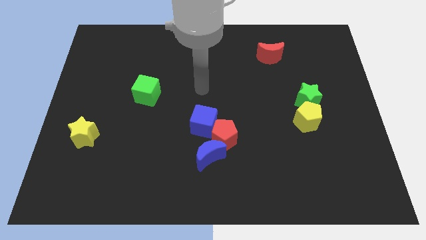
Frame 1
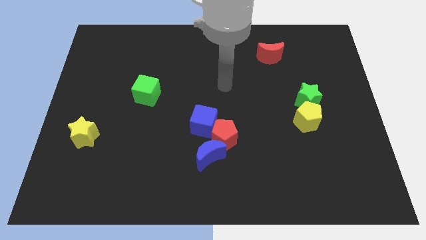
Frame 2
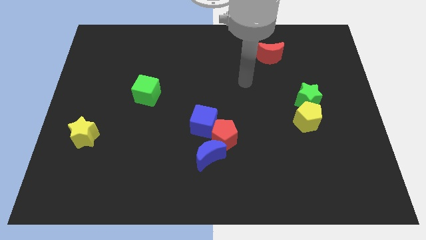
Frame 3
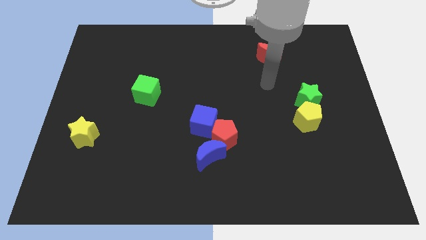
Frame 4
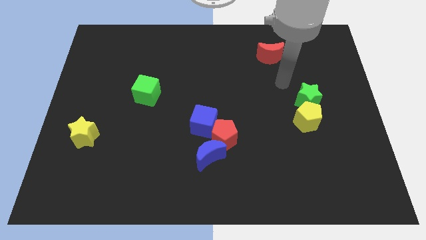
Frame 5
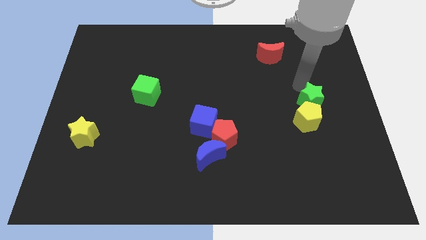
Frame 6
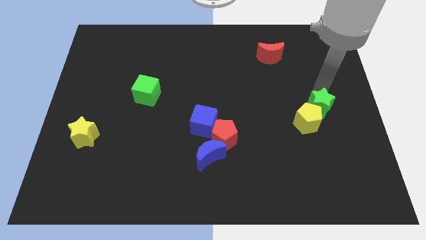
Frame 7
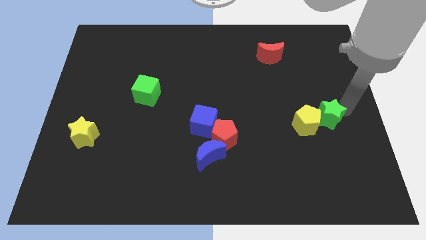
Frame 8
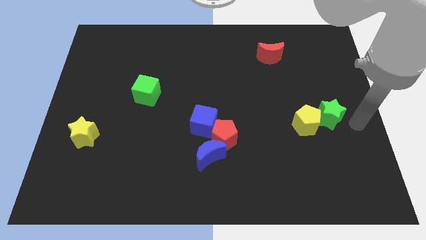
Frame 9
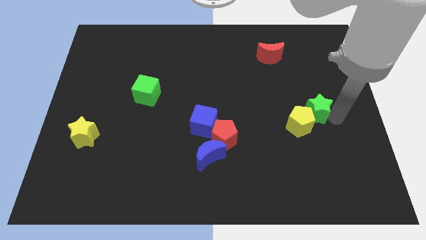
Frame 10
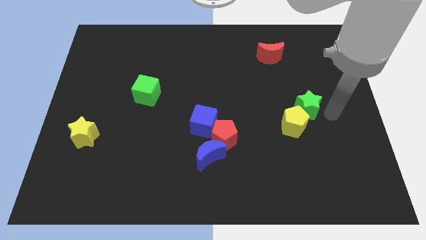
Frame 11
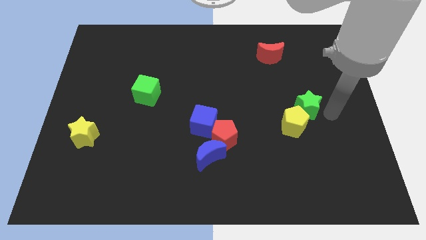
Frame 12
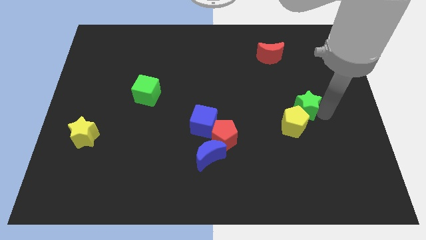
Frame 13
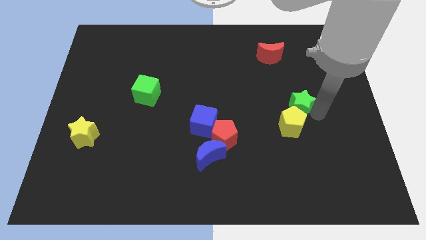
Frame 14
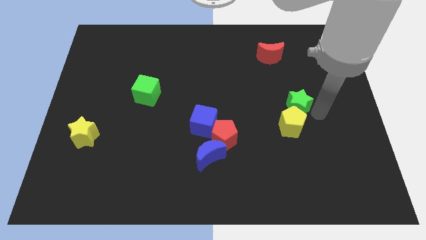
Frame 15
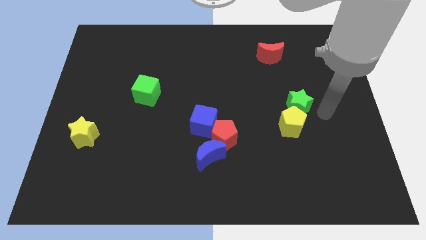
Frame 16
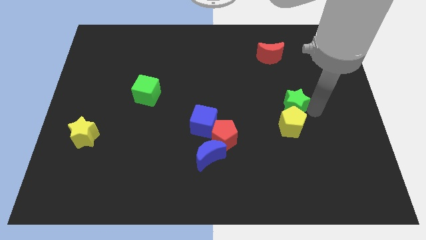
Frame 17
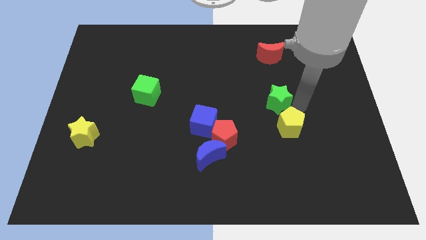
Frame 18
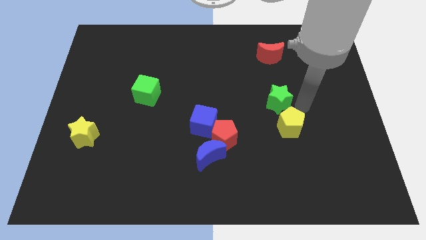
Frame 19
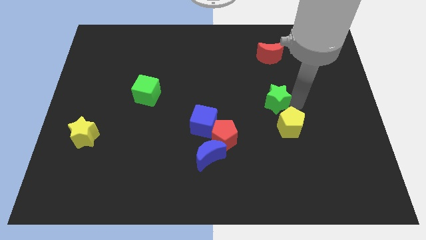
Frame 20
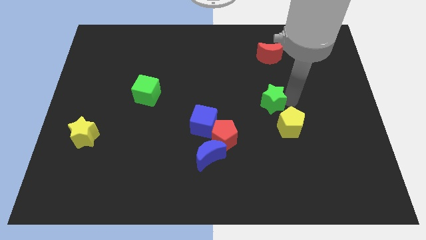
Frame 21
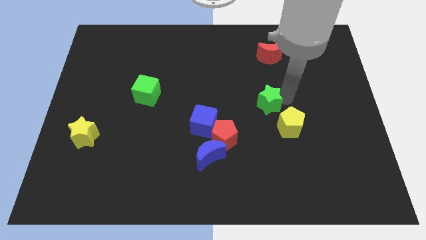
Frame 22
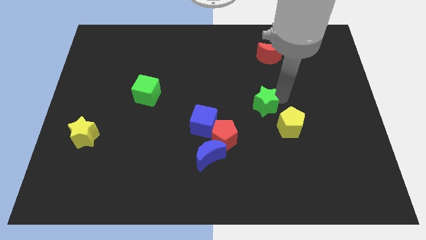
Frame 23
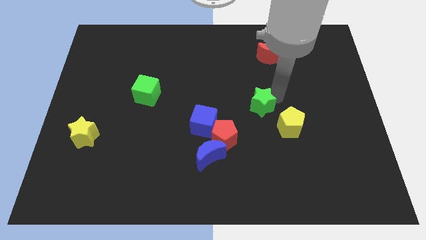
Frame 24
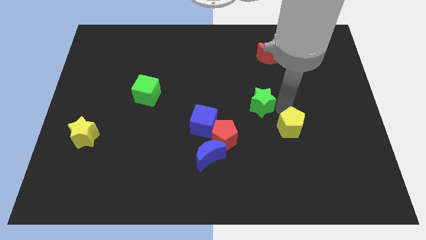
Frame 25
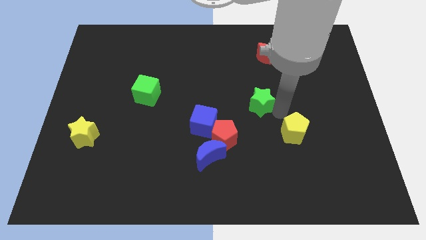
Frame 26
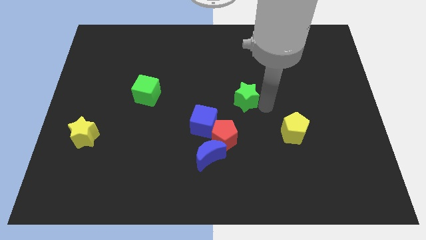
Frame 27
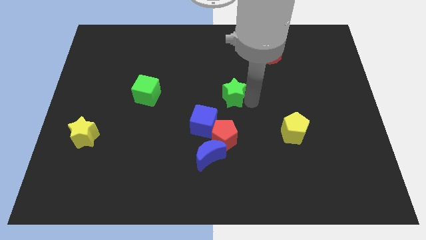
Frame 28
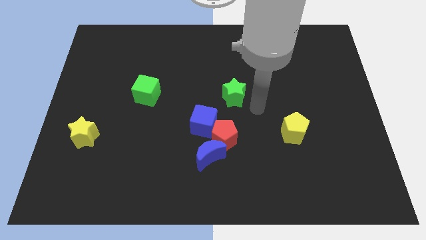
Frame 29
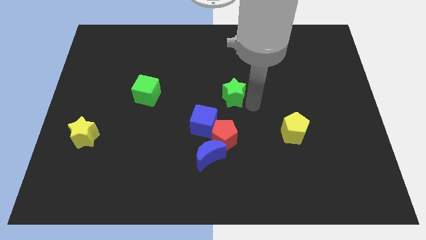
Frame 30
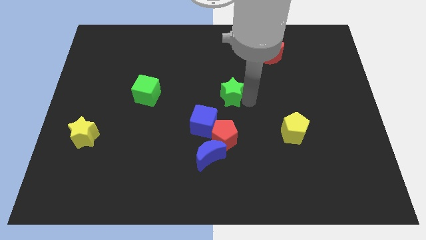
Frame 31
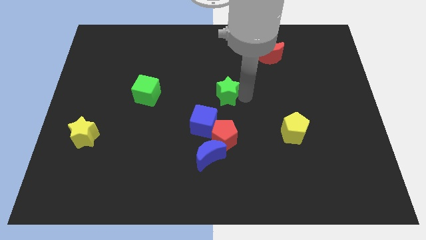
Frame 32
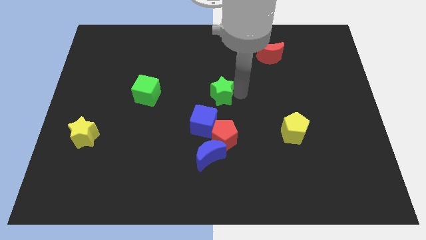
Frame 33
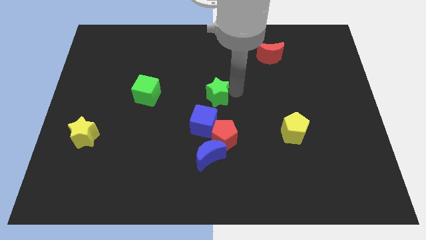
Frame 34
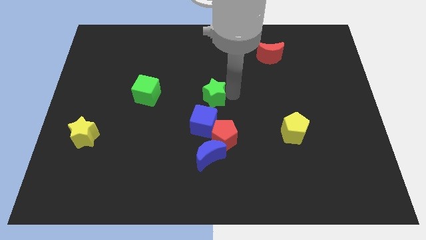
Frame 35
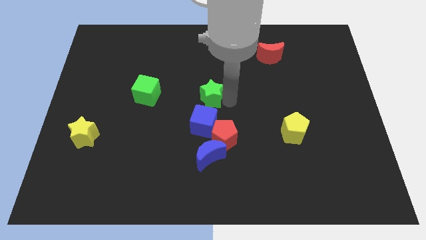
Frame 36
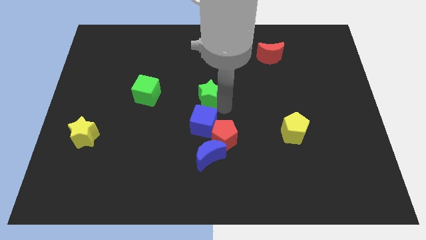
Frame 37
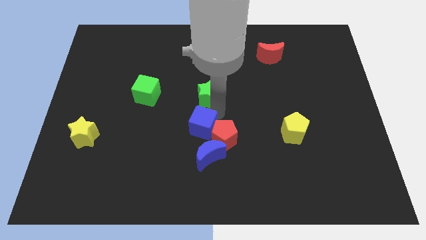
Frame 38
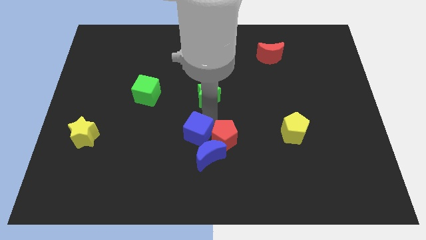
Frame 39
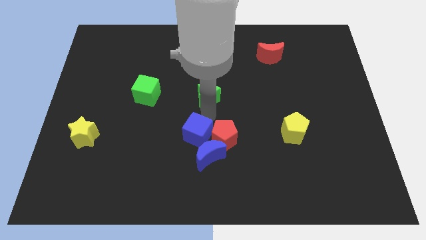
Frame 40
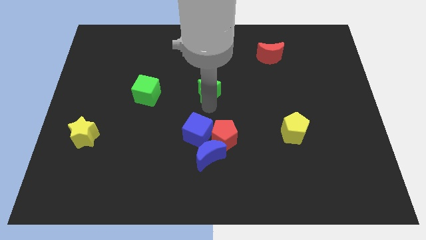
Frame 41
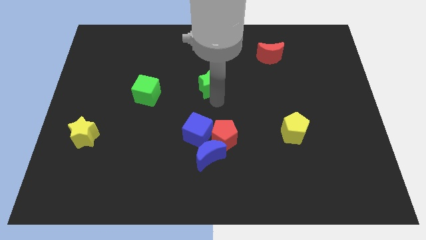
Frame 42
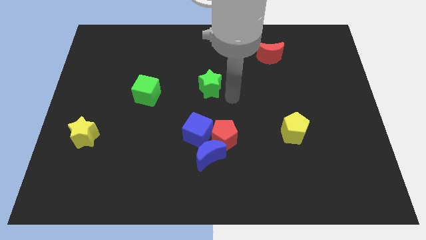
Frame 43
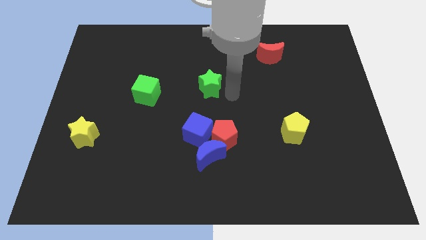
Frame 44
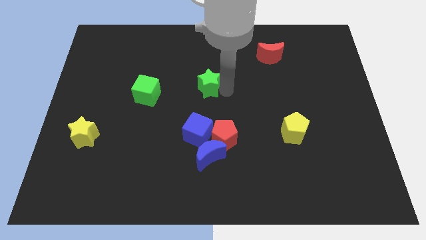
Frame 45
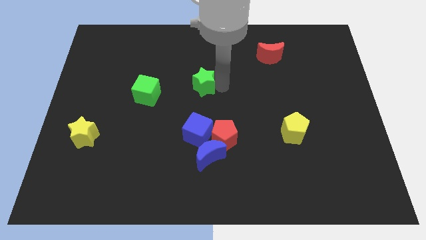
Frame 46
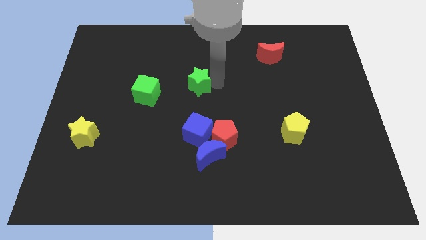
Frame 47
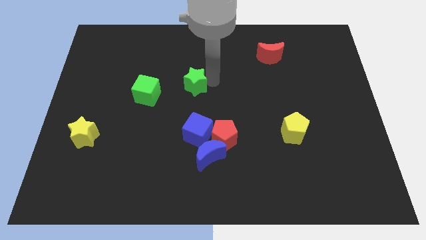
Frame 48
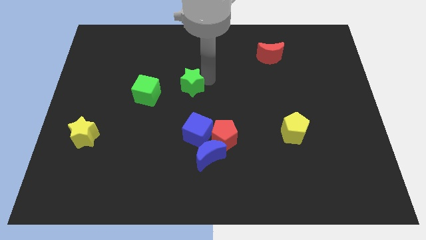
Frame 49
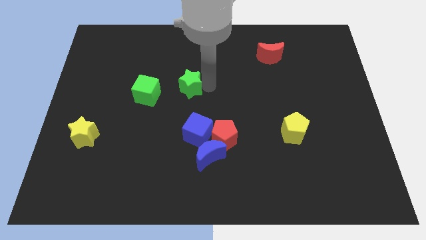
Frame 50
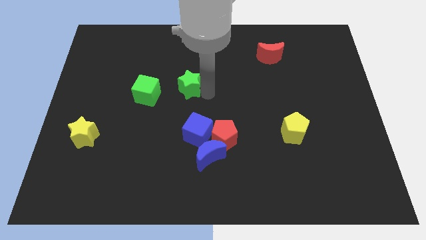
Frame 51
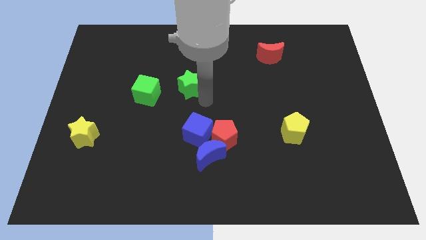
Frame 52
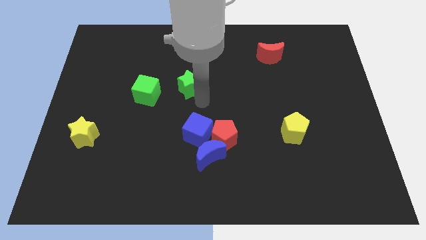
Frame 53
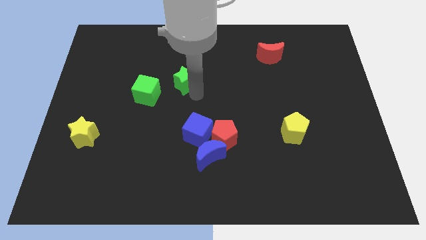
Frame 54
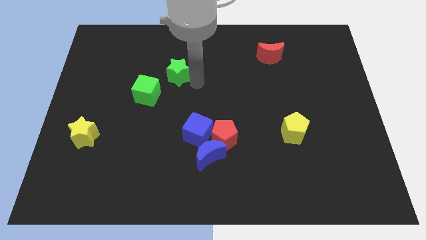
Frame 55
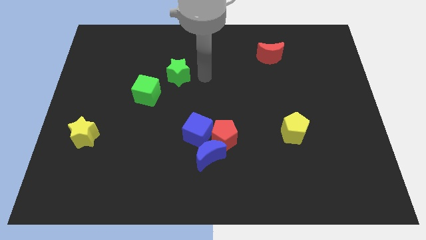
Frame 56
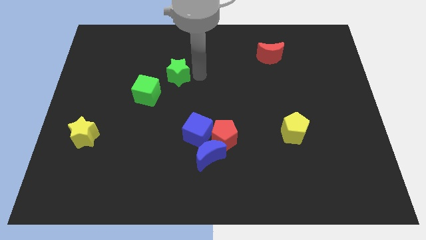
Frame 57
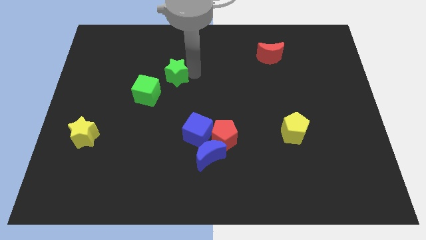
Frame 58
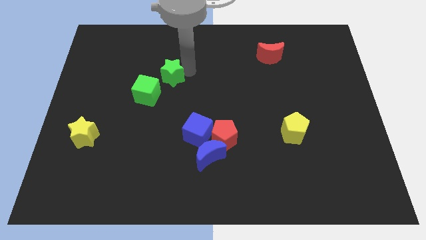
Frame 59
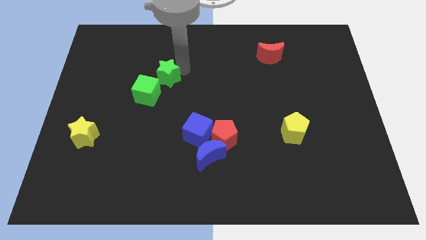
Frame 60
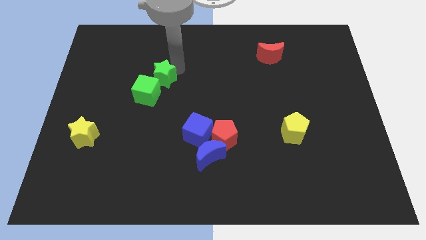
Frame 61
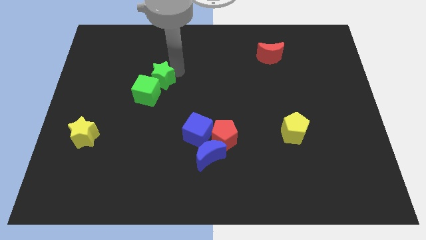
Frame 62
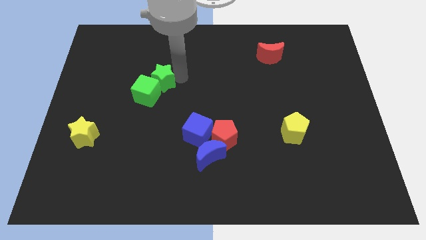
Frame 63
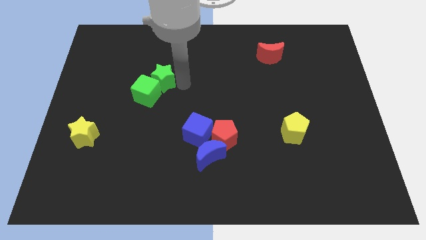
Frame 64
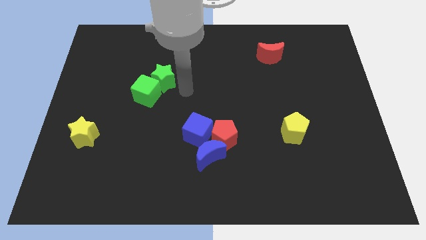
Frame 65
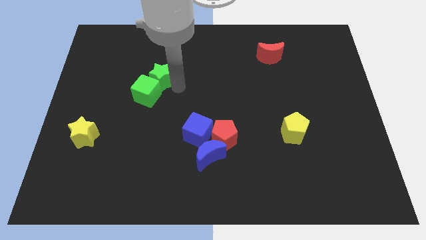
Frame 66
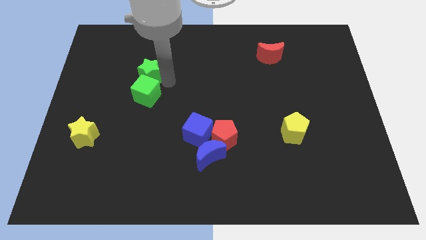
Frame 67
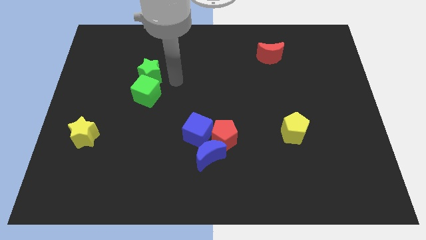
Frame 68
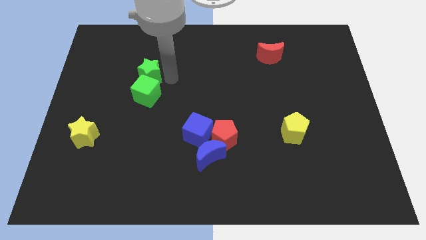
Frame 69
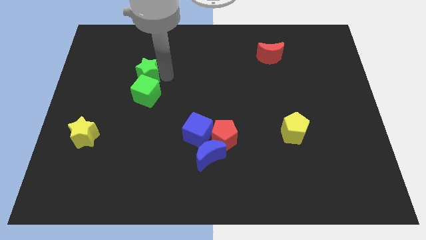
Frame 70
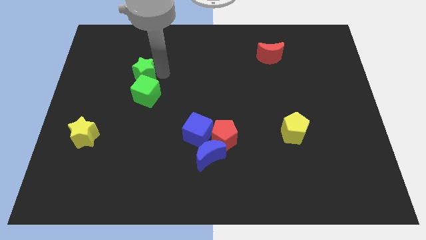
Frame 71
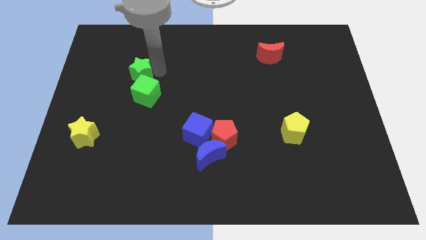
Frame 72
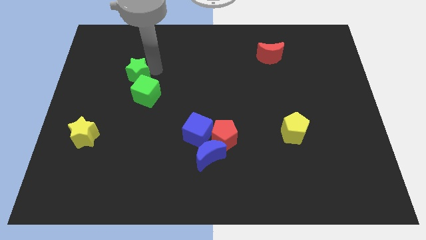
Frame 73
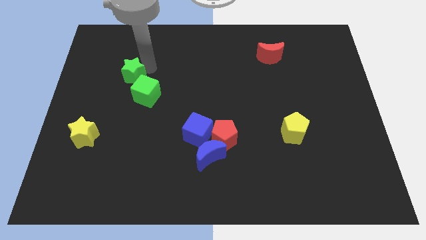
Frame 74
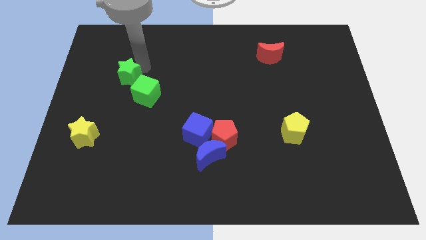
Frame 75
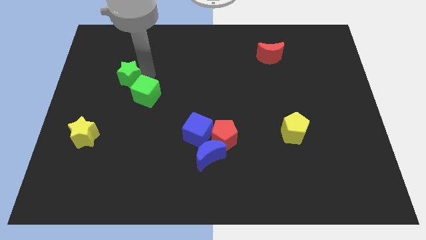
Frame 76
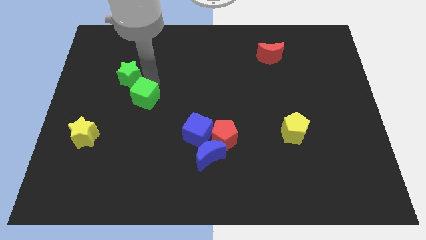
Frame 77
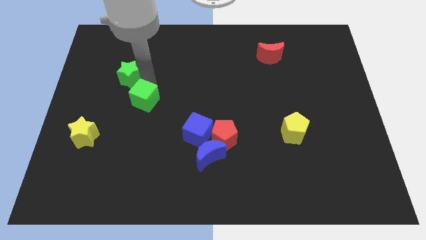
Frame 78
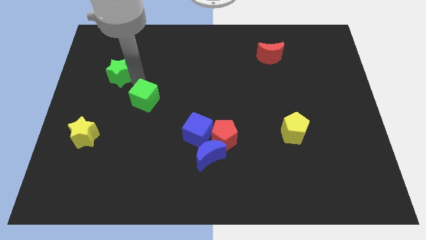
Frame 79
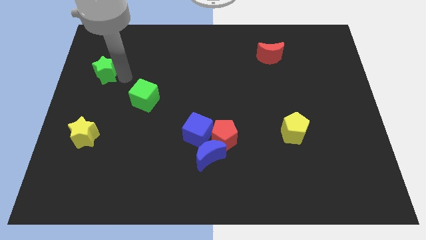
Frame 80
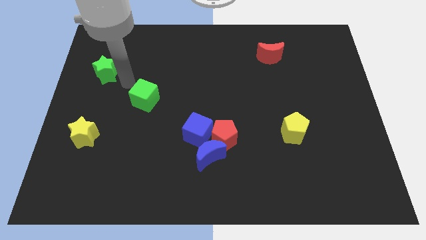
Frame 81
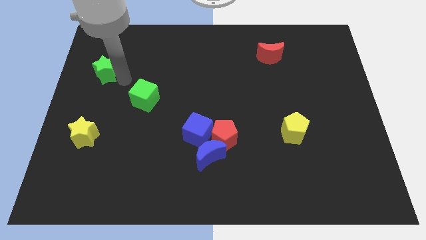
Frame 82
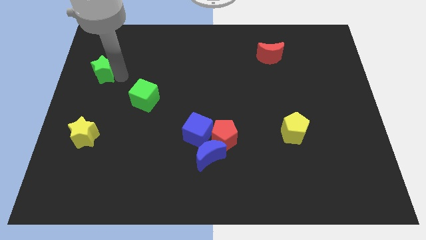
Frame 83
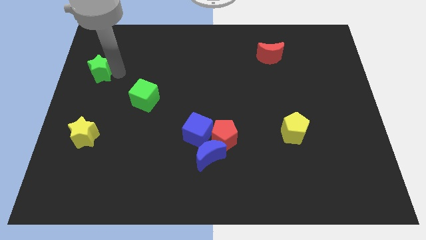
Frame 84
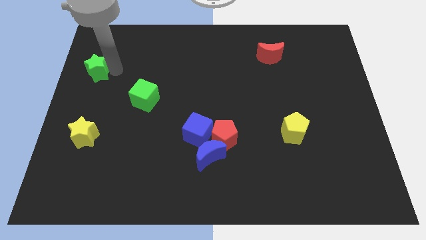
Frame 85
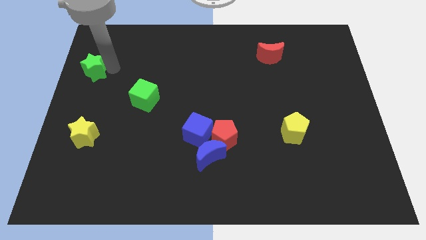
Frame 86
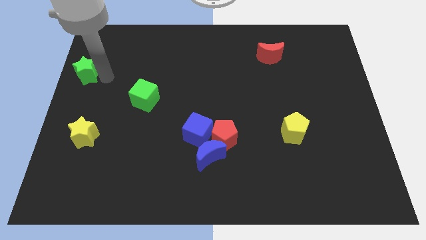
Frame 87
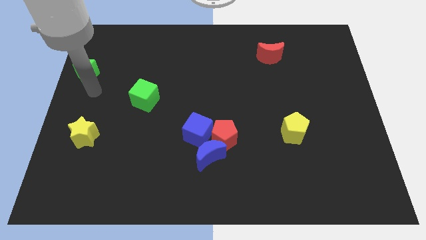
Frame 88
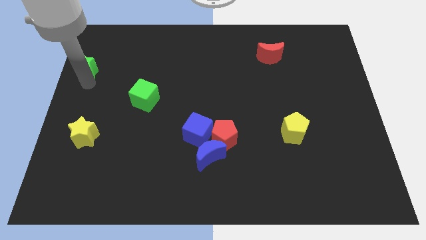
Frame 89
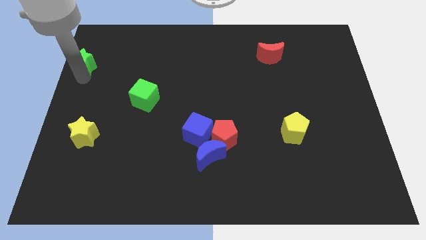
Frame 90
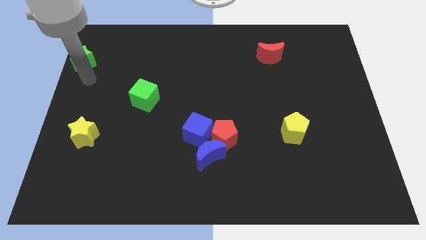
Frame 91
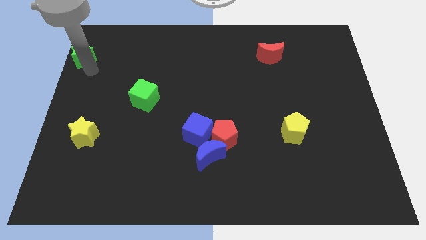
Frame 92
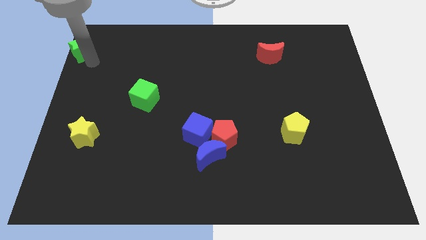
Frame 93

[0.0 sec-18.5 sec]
slide the green star to the upper left corner
